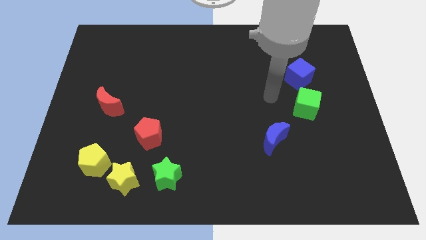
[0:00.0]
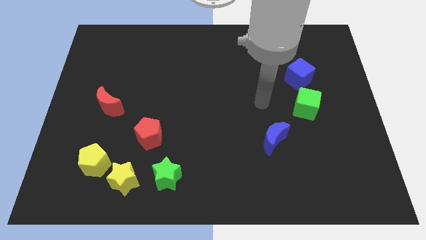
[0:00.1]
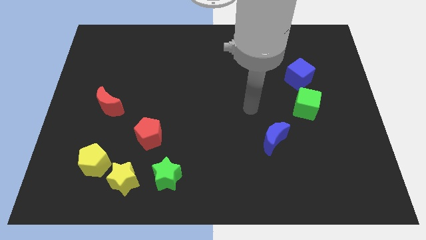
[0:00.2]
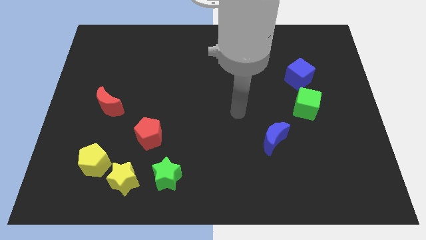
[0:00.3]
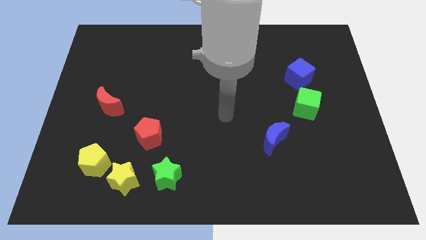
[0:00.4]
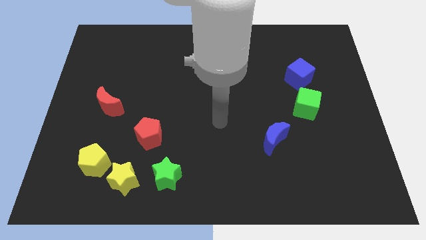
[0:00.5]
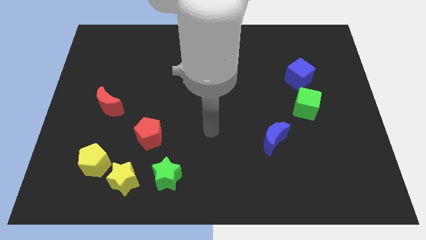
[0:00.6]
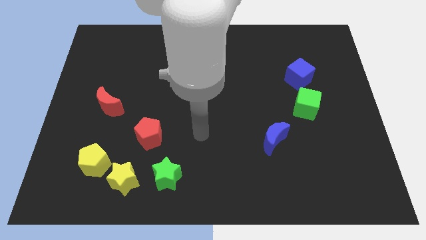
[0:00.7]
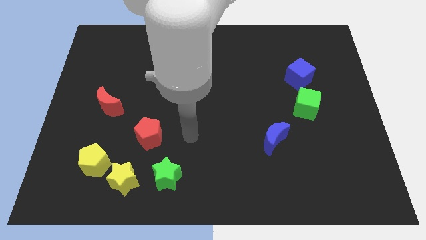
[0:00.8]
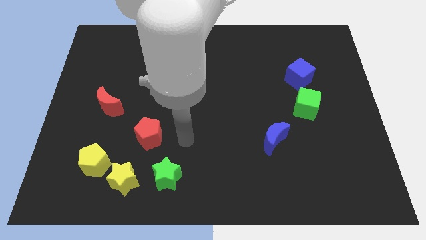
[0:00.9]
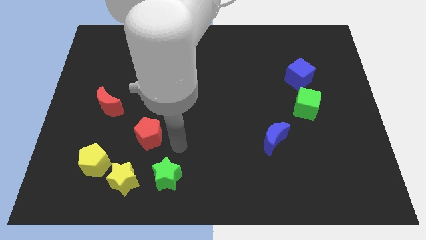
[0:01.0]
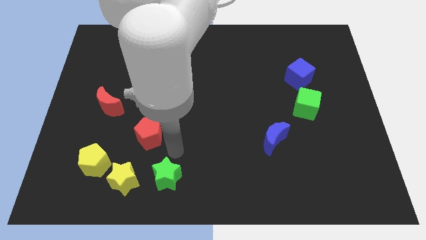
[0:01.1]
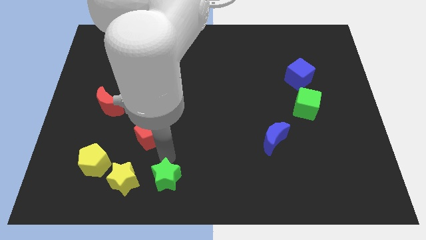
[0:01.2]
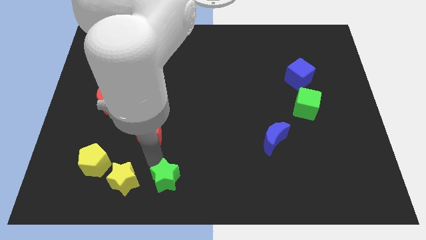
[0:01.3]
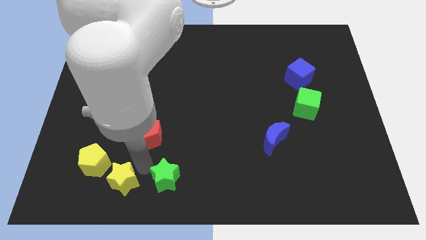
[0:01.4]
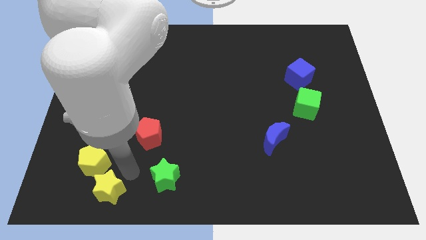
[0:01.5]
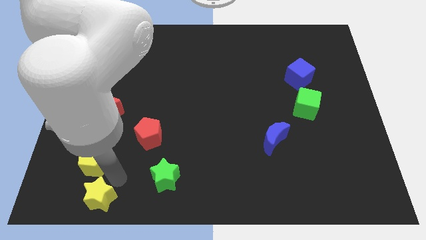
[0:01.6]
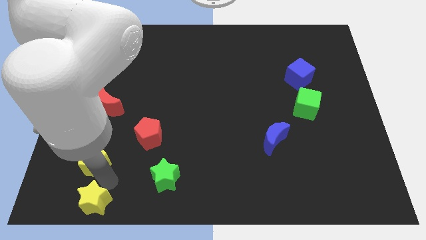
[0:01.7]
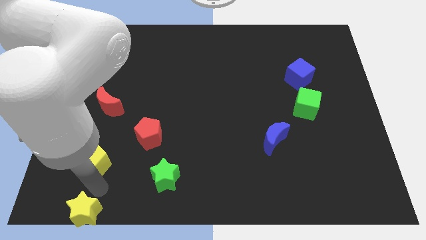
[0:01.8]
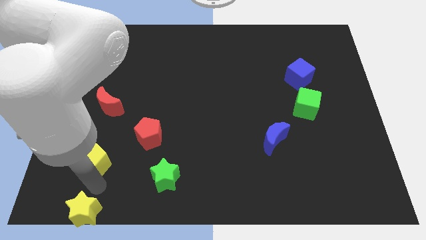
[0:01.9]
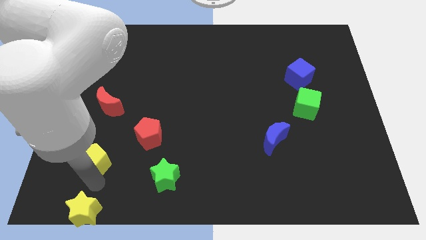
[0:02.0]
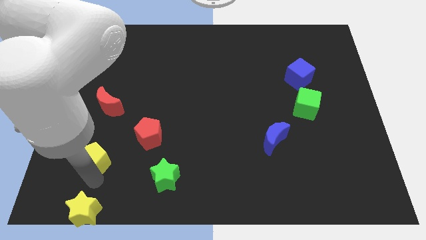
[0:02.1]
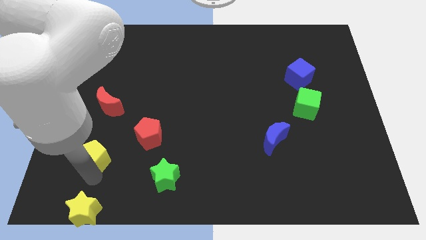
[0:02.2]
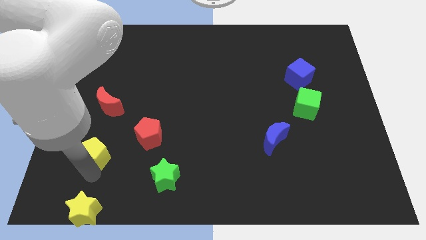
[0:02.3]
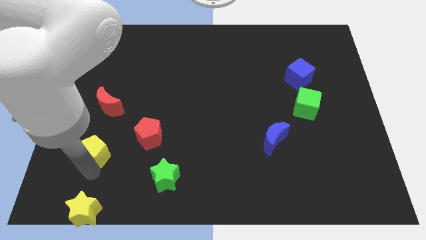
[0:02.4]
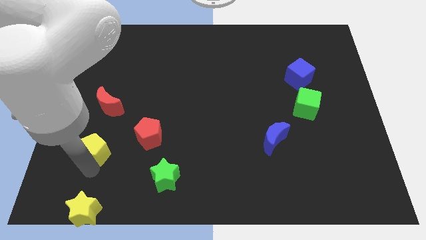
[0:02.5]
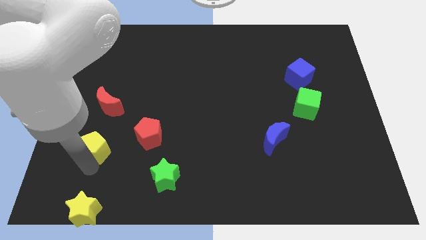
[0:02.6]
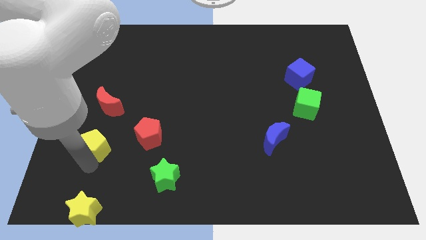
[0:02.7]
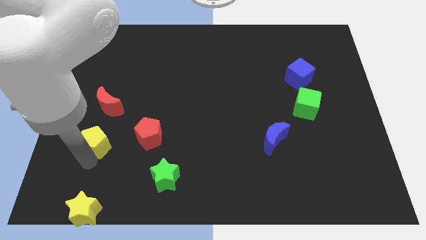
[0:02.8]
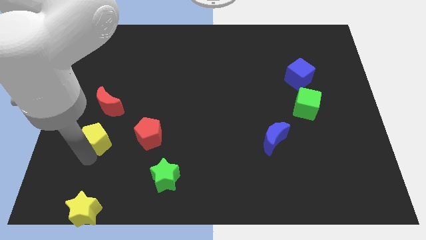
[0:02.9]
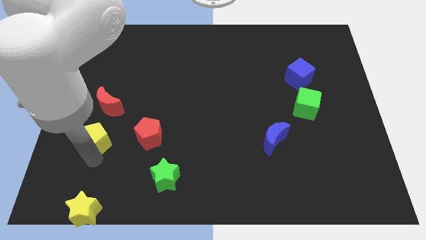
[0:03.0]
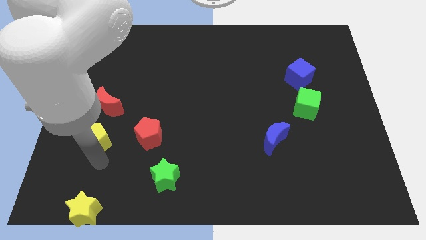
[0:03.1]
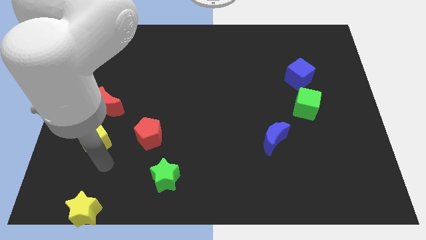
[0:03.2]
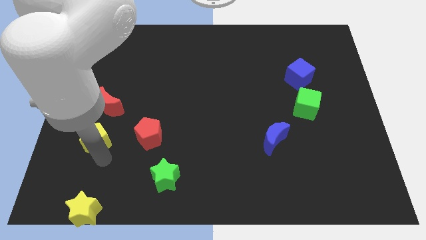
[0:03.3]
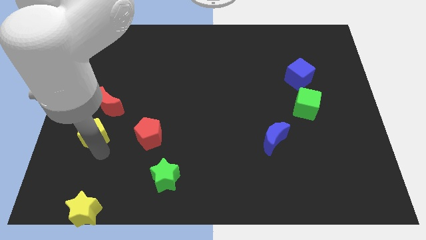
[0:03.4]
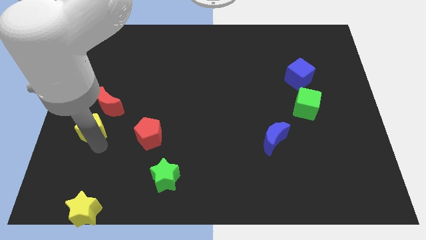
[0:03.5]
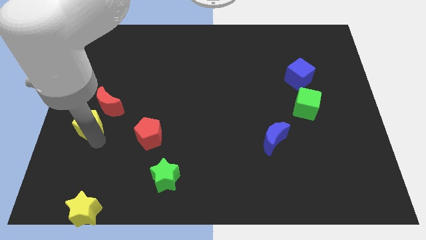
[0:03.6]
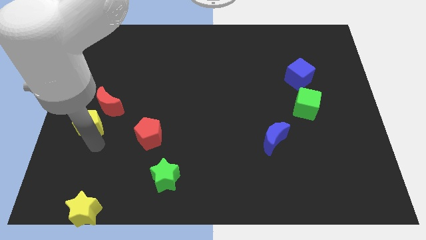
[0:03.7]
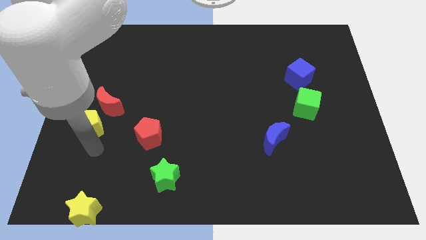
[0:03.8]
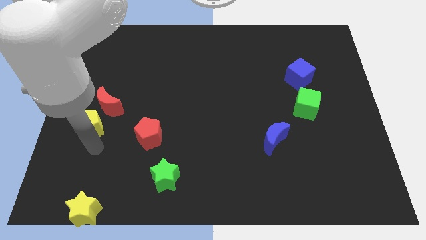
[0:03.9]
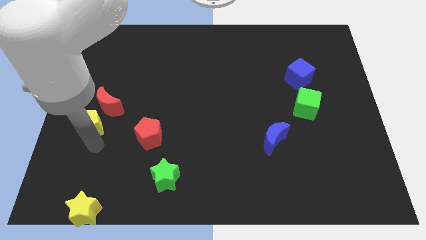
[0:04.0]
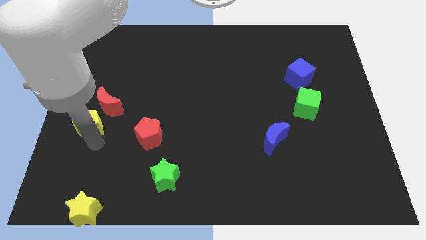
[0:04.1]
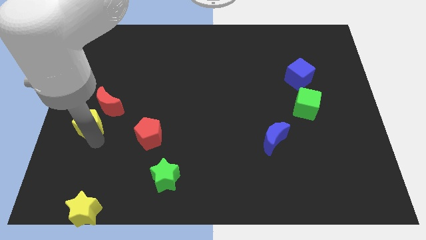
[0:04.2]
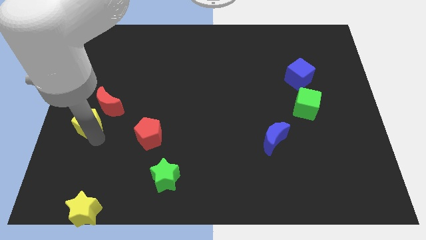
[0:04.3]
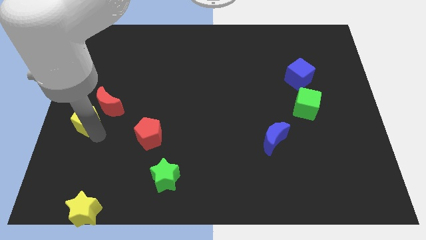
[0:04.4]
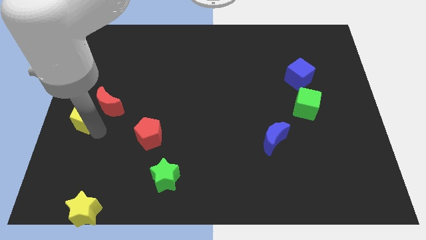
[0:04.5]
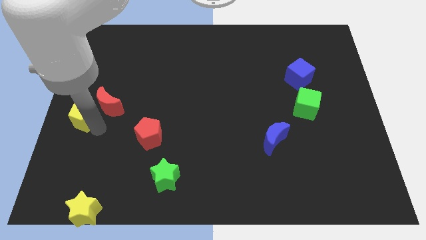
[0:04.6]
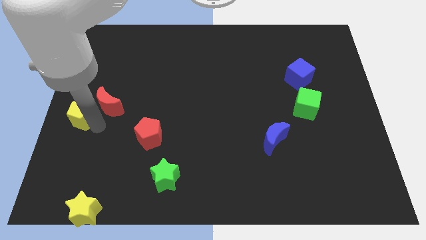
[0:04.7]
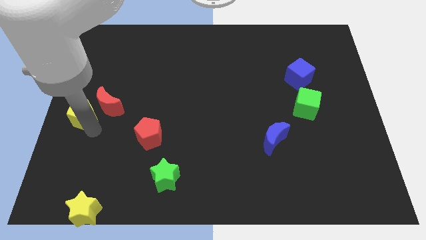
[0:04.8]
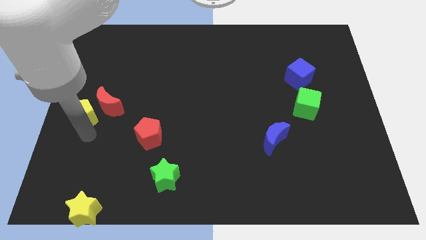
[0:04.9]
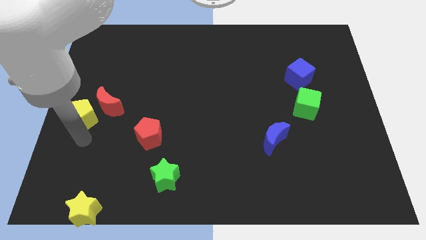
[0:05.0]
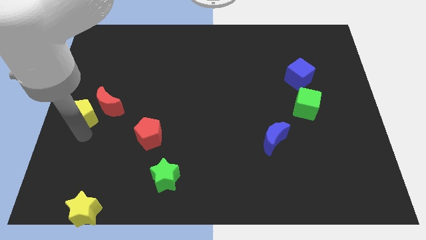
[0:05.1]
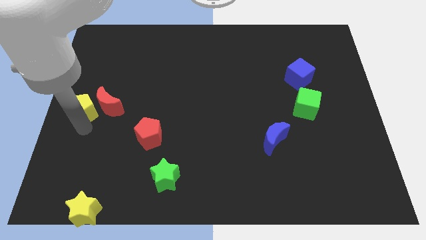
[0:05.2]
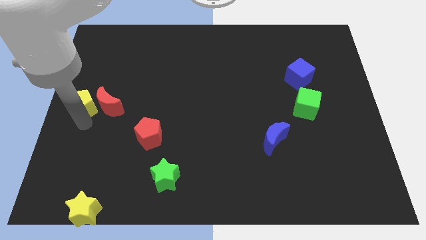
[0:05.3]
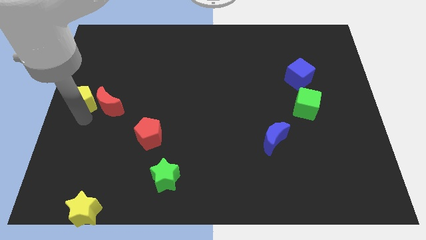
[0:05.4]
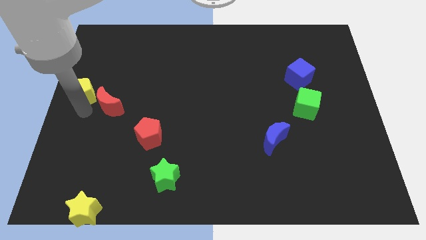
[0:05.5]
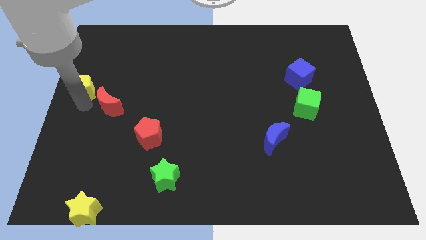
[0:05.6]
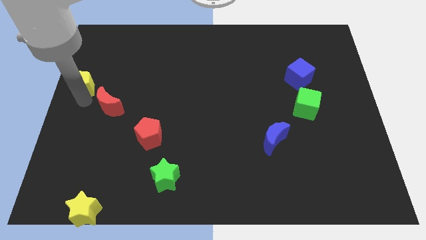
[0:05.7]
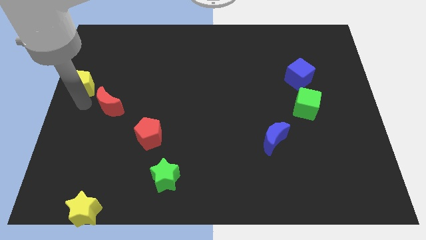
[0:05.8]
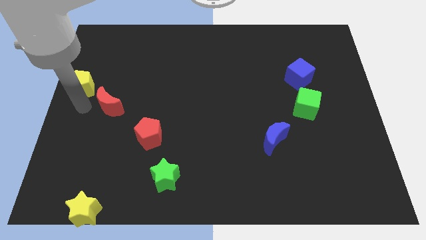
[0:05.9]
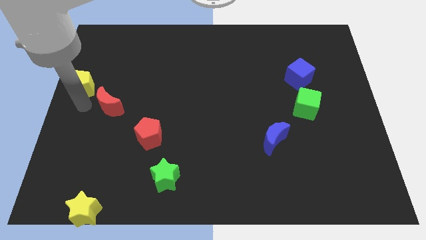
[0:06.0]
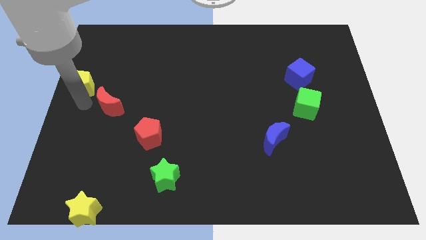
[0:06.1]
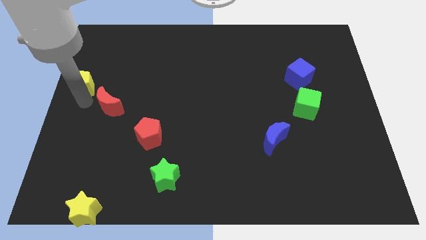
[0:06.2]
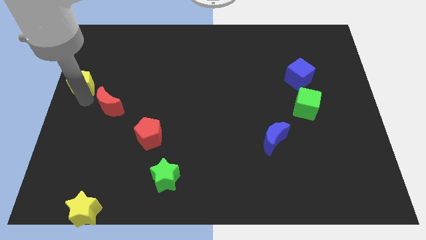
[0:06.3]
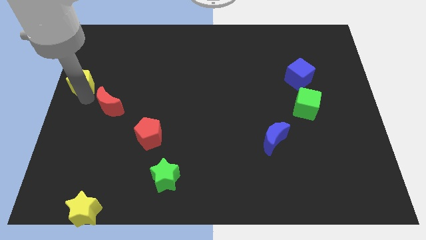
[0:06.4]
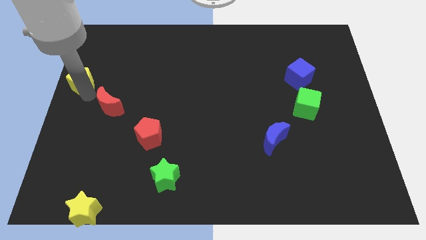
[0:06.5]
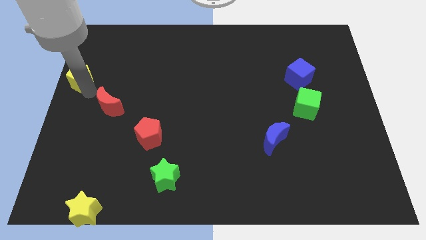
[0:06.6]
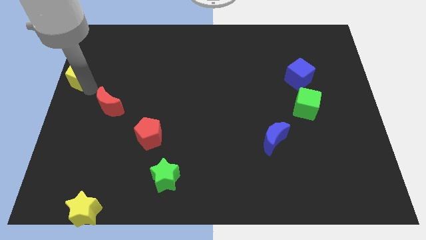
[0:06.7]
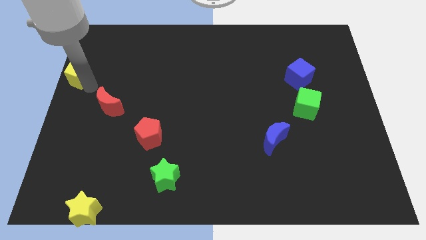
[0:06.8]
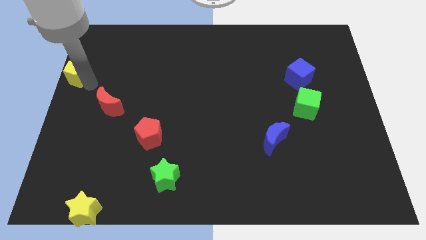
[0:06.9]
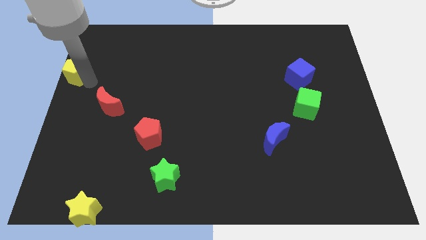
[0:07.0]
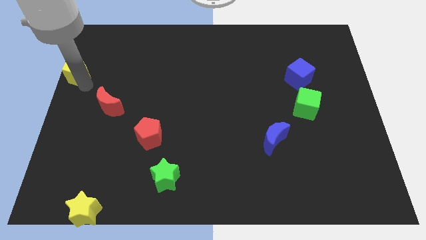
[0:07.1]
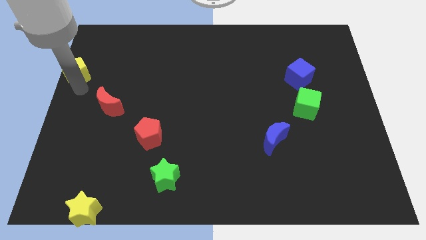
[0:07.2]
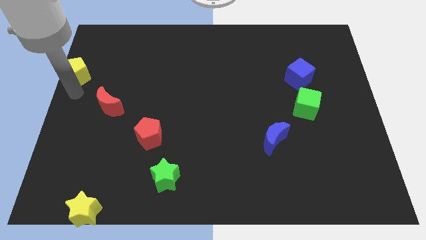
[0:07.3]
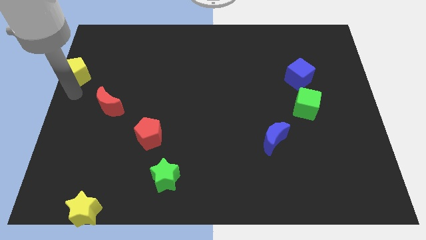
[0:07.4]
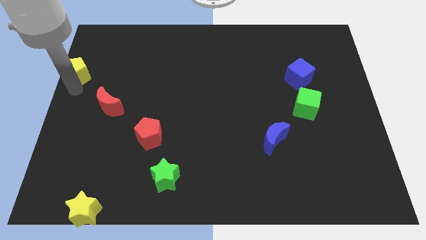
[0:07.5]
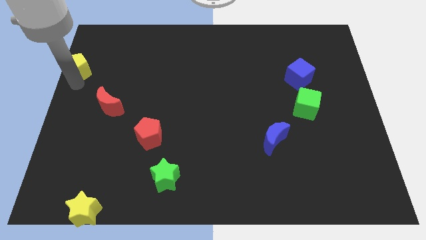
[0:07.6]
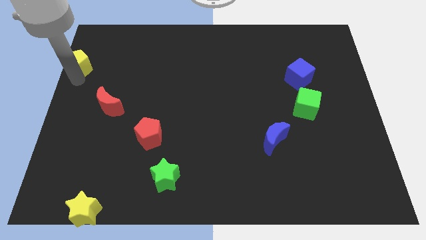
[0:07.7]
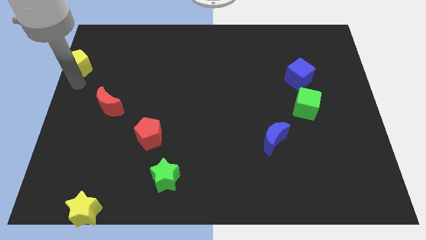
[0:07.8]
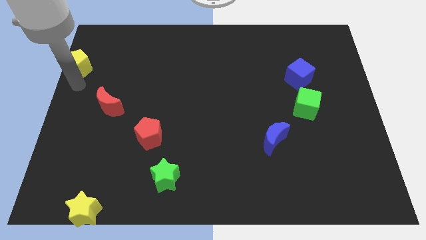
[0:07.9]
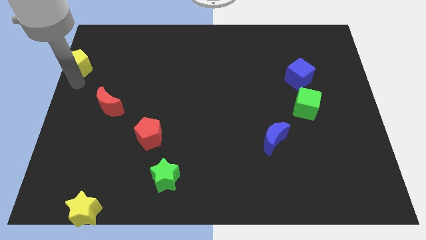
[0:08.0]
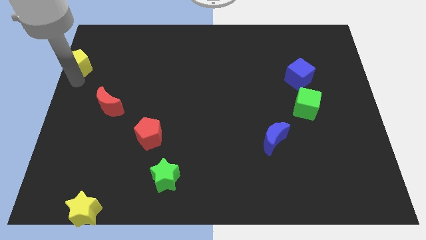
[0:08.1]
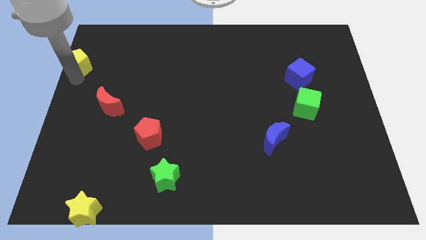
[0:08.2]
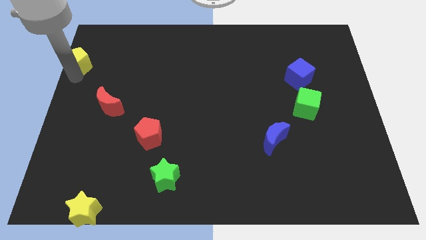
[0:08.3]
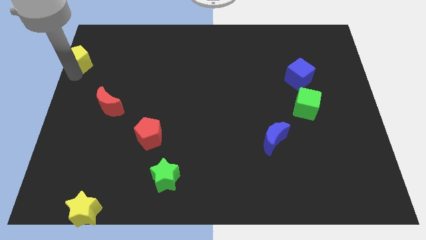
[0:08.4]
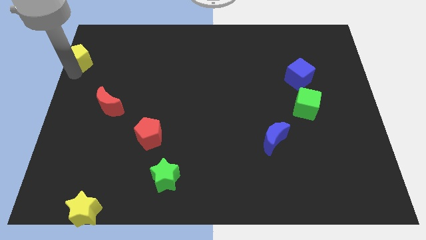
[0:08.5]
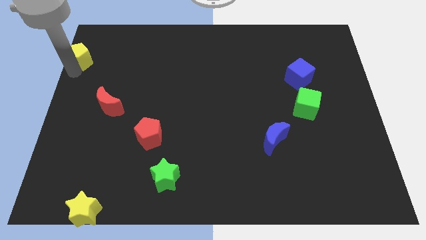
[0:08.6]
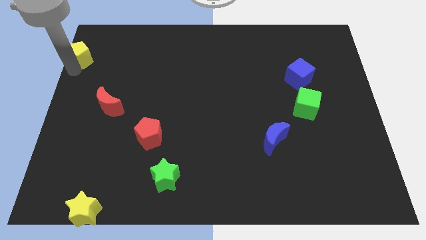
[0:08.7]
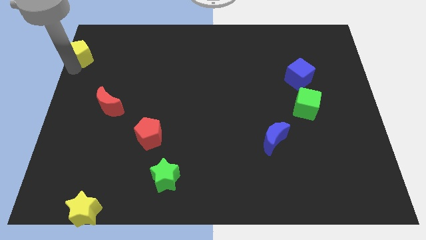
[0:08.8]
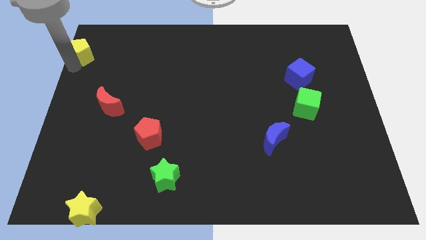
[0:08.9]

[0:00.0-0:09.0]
push the yellow pentagon to the top left
